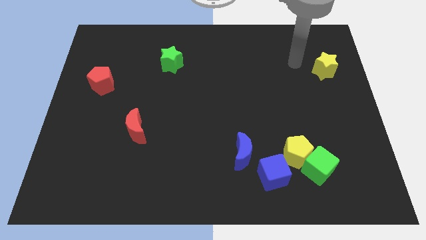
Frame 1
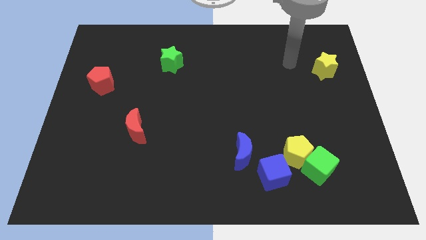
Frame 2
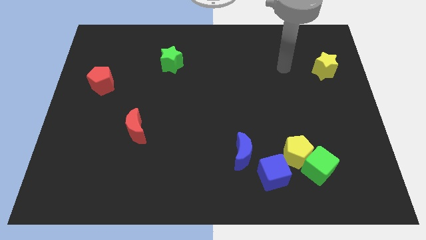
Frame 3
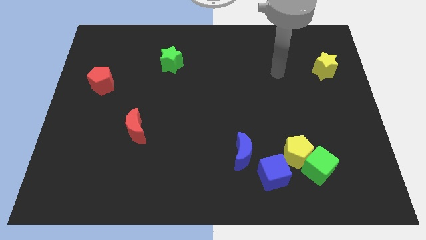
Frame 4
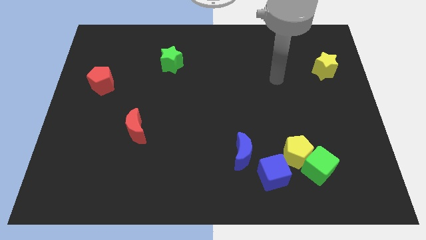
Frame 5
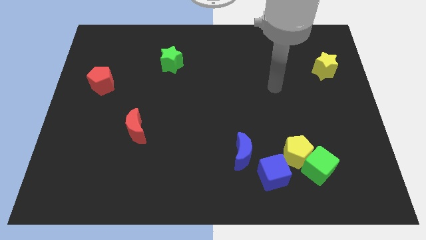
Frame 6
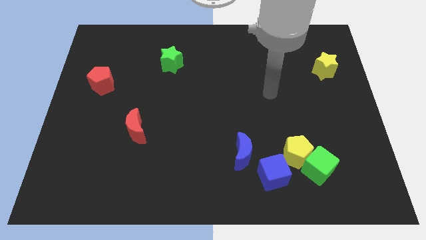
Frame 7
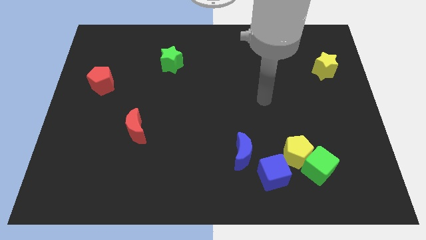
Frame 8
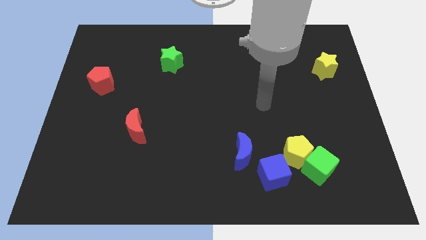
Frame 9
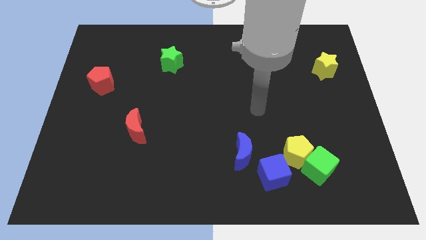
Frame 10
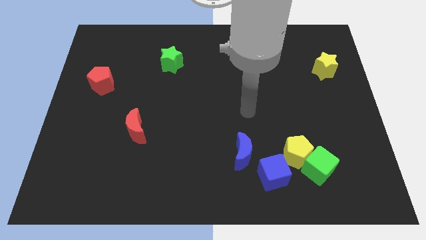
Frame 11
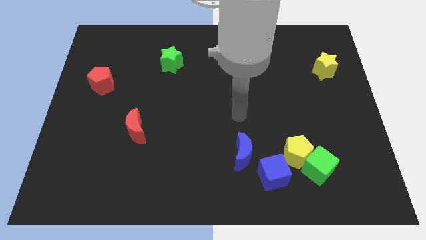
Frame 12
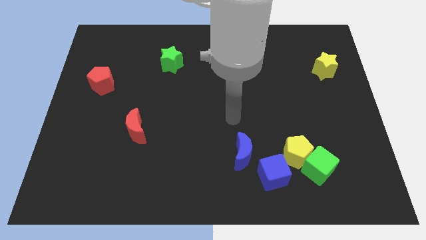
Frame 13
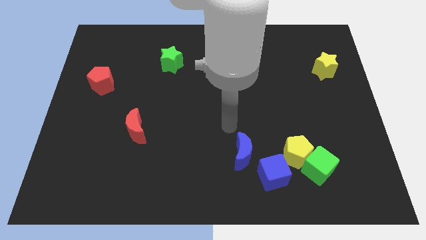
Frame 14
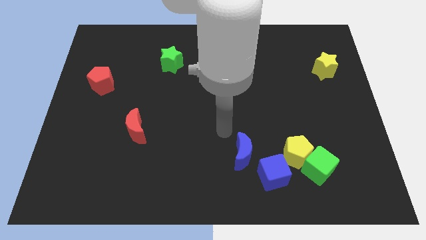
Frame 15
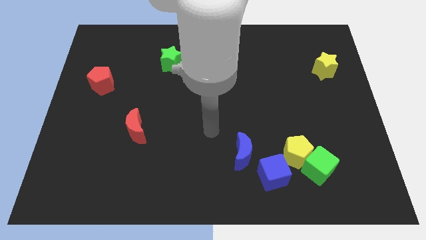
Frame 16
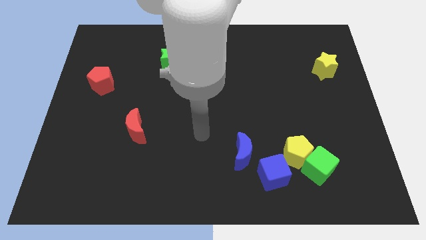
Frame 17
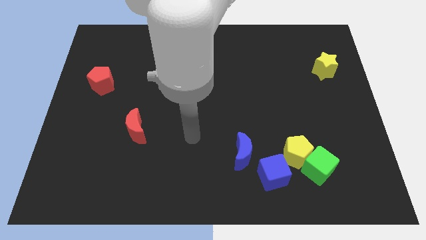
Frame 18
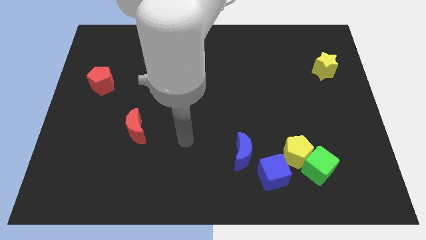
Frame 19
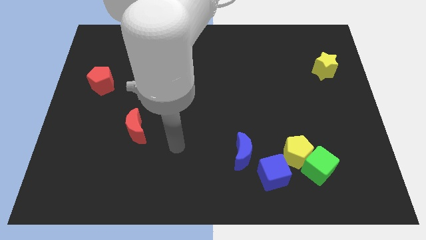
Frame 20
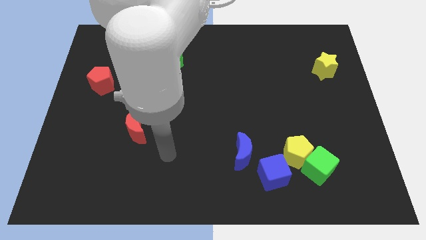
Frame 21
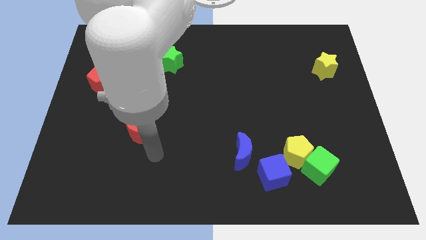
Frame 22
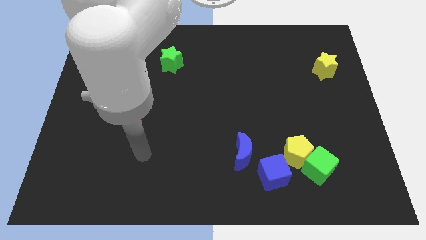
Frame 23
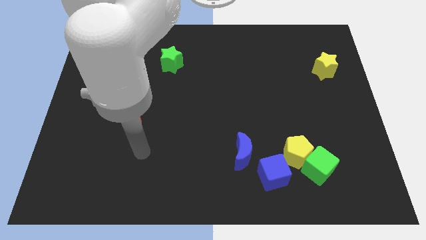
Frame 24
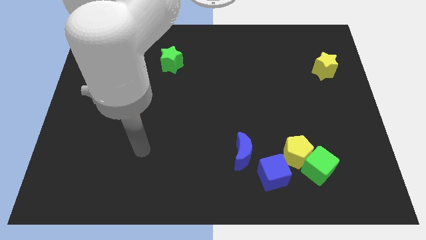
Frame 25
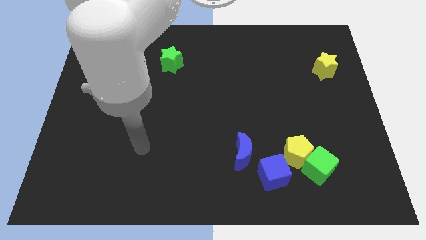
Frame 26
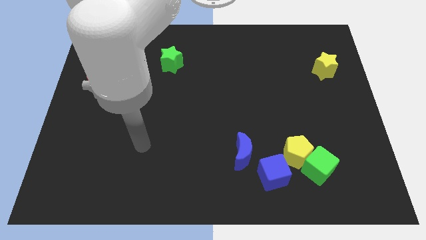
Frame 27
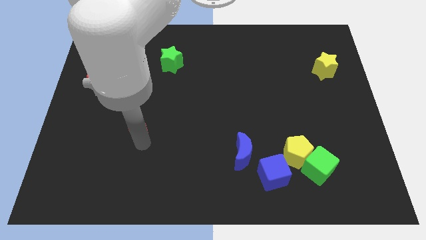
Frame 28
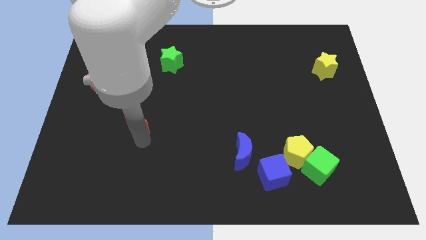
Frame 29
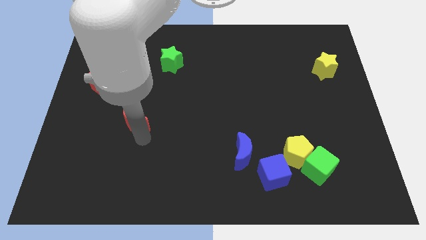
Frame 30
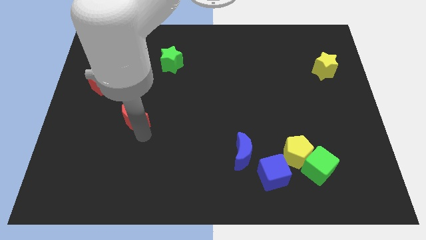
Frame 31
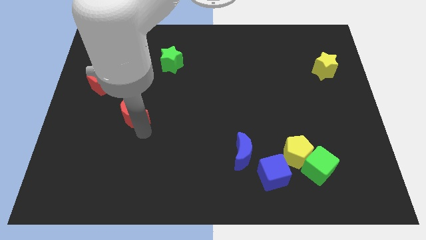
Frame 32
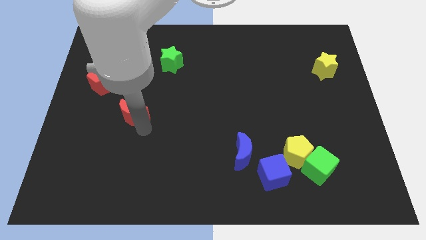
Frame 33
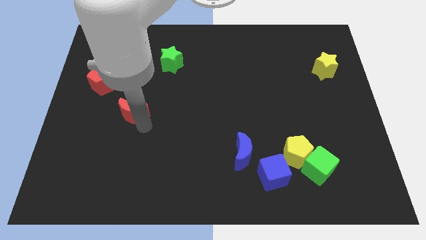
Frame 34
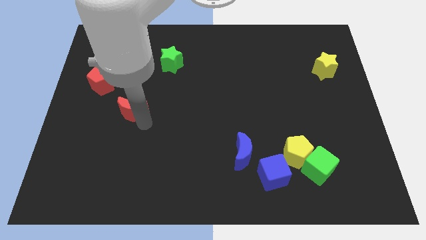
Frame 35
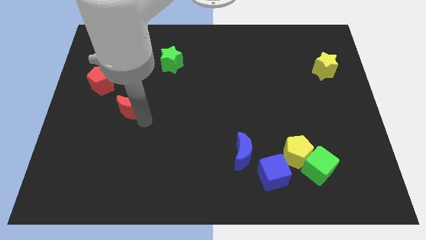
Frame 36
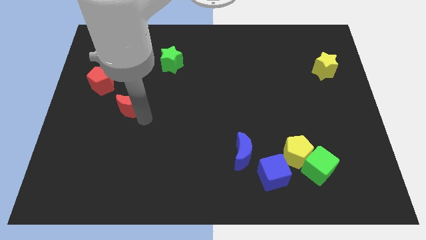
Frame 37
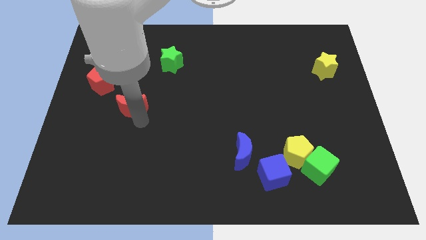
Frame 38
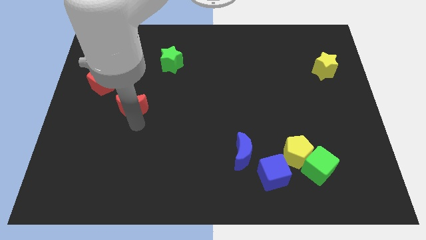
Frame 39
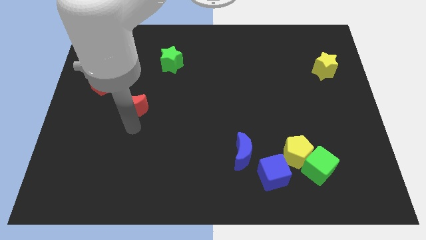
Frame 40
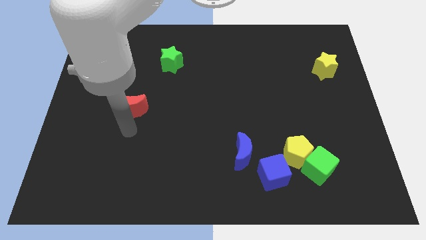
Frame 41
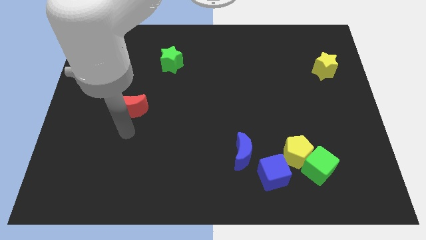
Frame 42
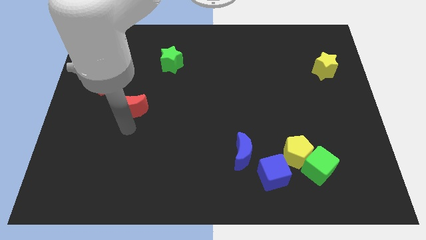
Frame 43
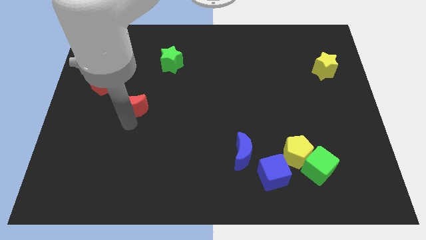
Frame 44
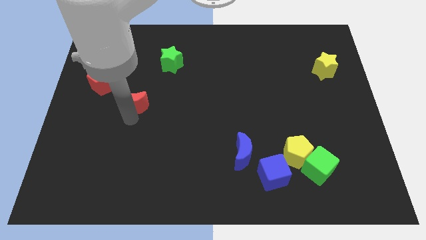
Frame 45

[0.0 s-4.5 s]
move the red moon a little upwards

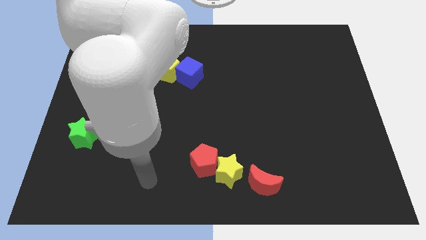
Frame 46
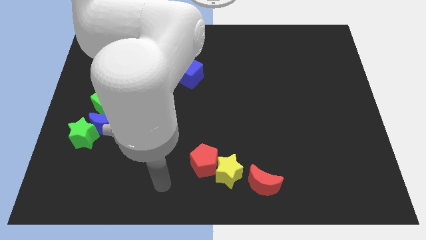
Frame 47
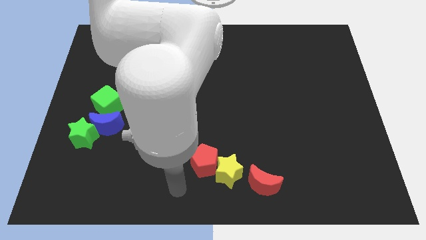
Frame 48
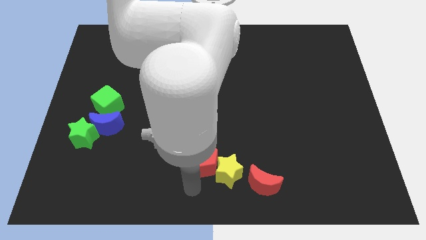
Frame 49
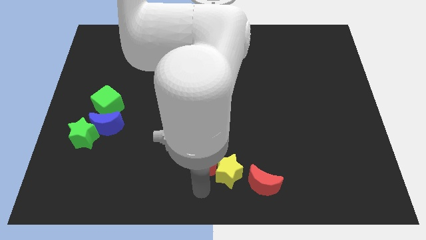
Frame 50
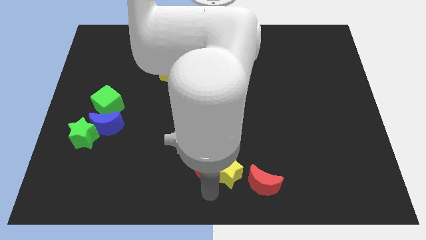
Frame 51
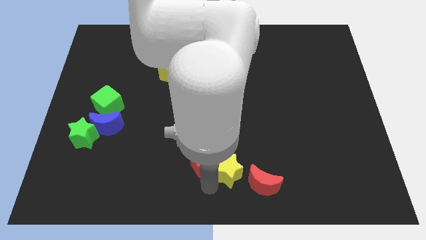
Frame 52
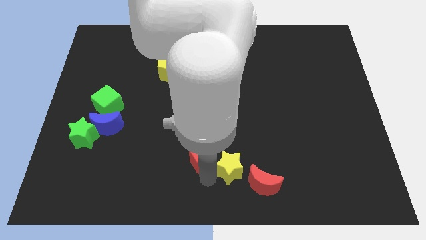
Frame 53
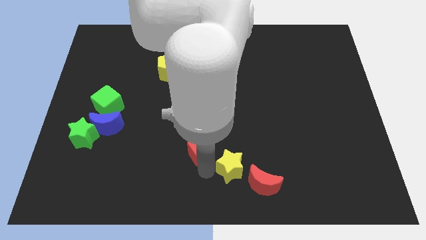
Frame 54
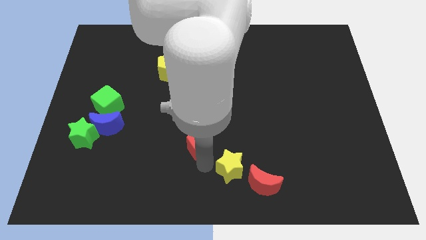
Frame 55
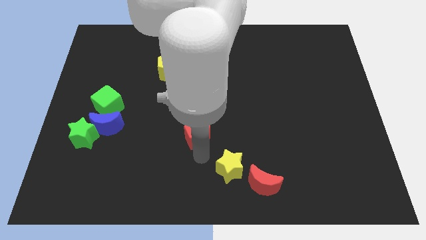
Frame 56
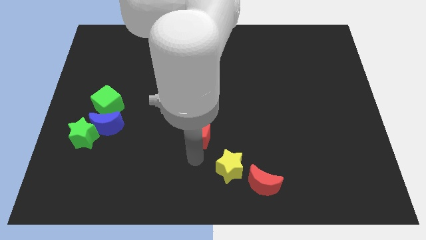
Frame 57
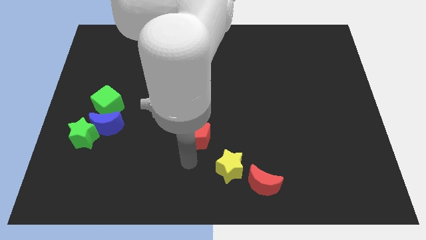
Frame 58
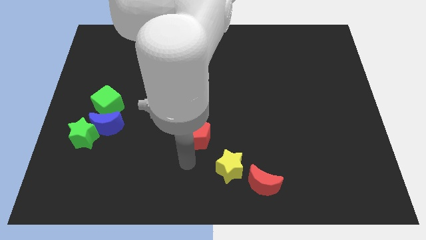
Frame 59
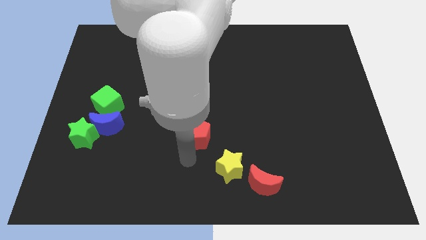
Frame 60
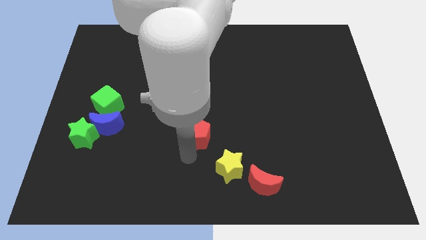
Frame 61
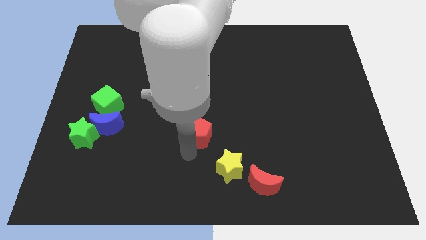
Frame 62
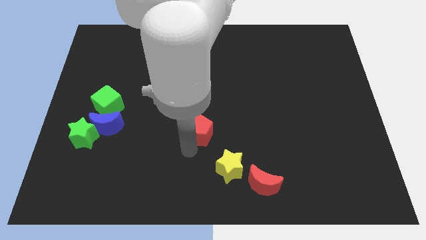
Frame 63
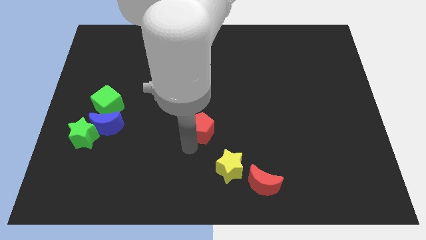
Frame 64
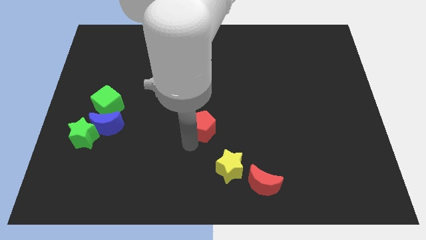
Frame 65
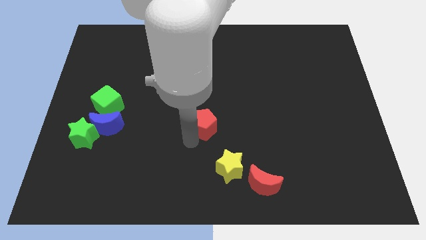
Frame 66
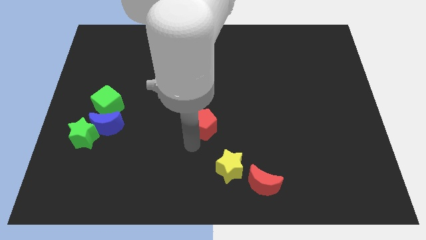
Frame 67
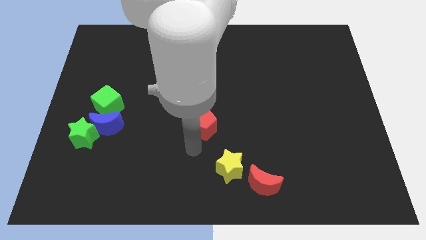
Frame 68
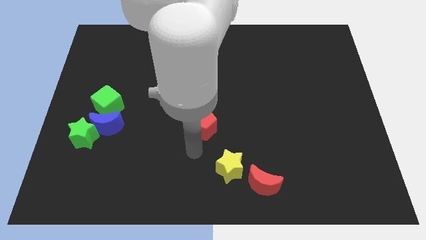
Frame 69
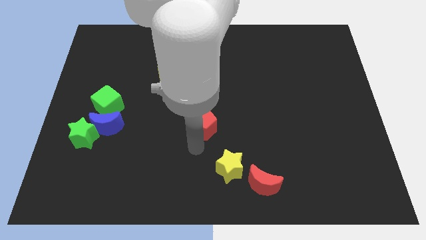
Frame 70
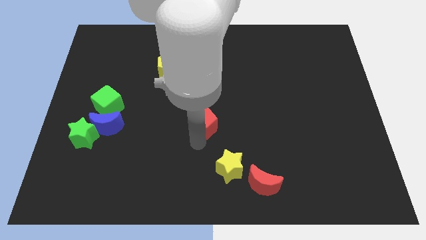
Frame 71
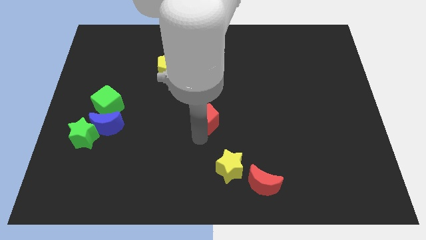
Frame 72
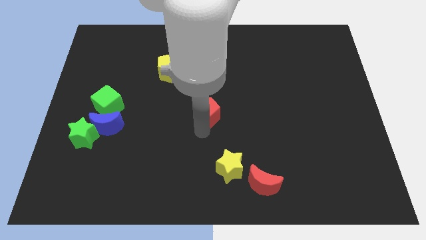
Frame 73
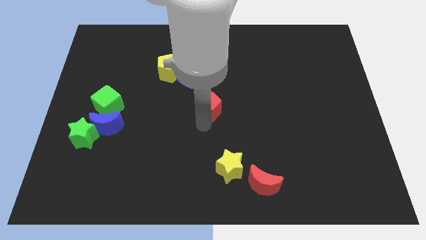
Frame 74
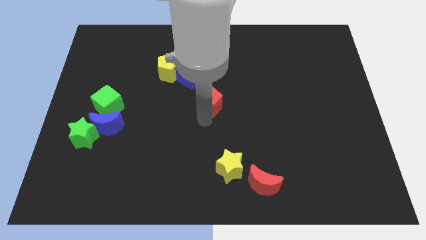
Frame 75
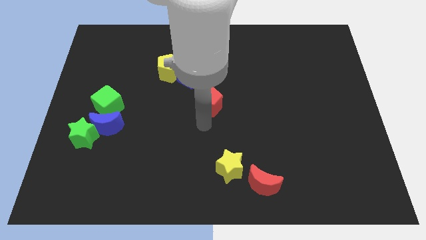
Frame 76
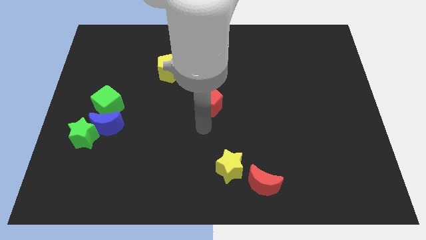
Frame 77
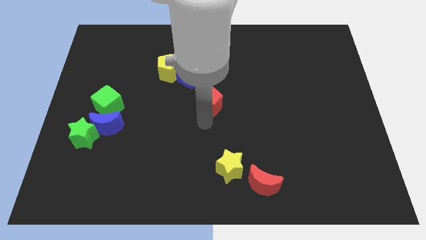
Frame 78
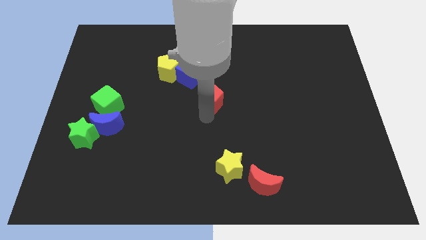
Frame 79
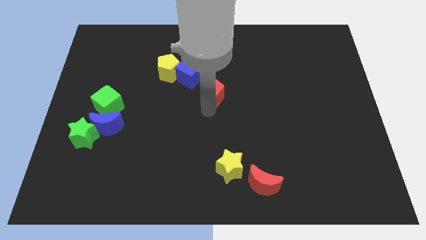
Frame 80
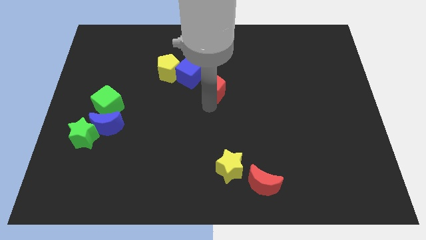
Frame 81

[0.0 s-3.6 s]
slide the red pentagon upwards
